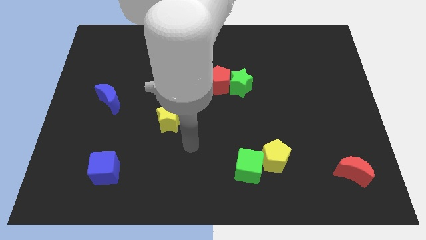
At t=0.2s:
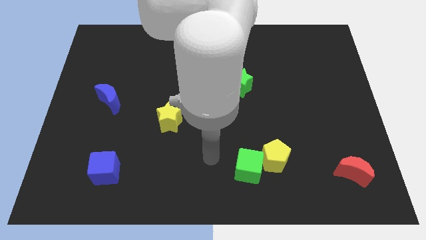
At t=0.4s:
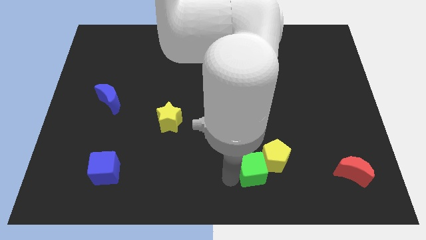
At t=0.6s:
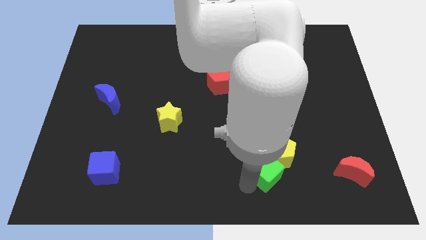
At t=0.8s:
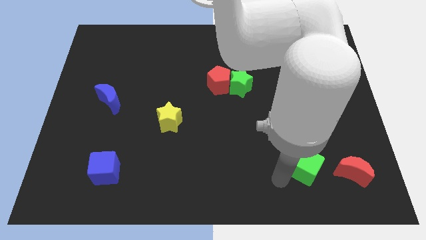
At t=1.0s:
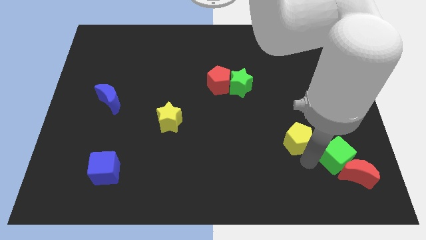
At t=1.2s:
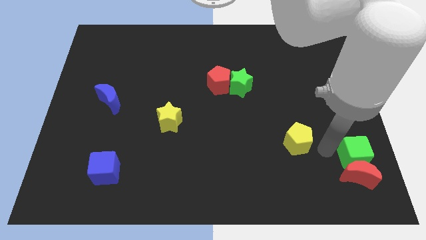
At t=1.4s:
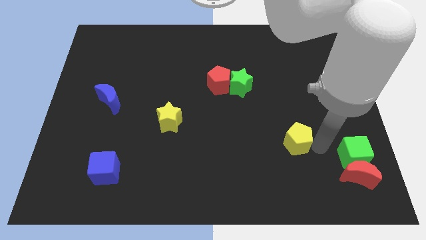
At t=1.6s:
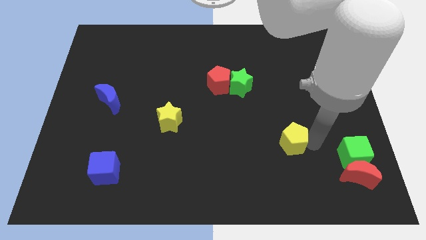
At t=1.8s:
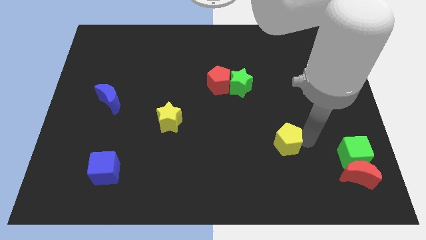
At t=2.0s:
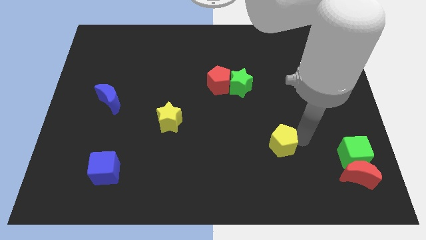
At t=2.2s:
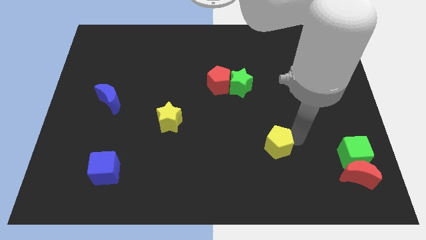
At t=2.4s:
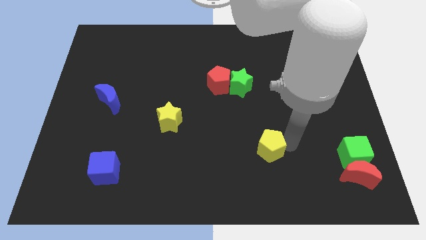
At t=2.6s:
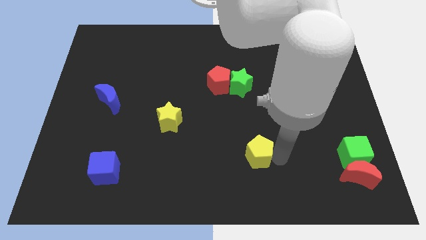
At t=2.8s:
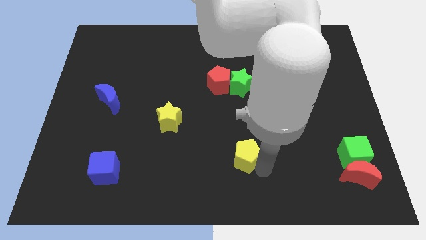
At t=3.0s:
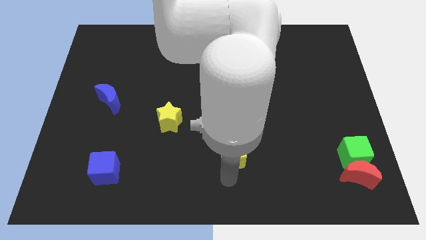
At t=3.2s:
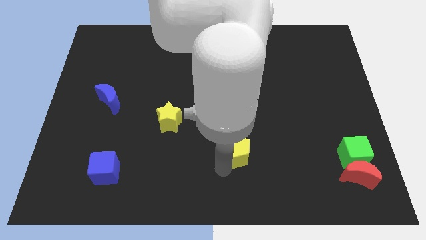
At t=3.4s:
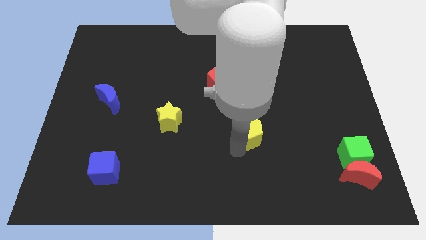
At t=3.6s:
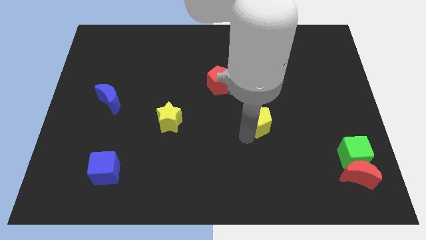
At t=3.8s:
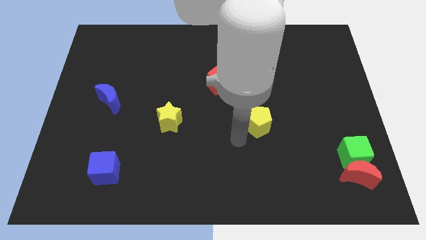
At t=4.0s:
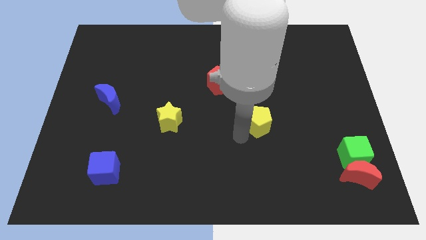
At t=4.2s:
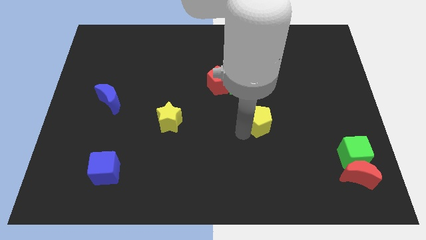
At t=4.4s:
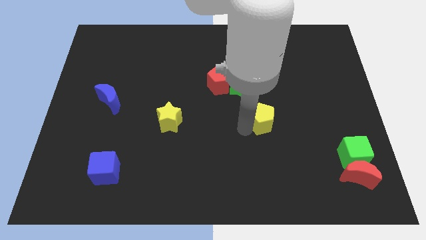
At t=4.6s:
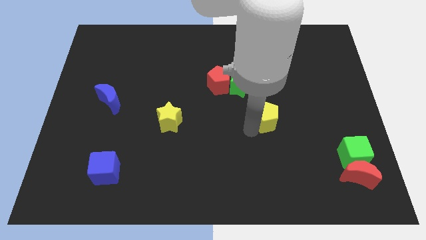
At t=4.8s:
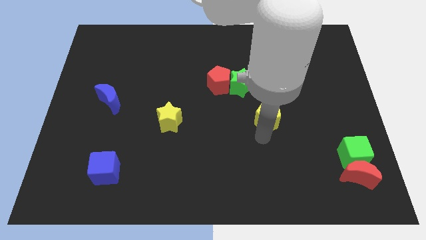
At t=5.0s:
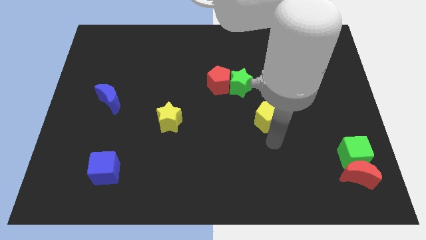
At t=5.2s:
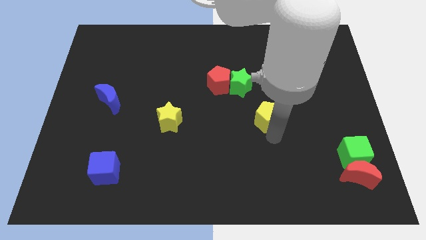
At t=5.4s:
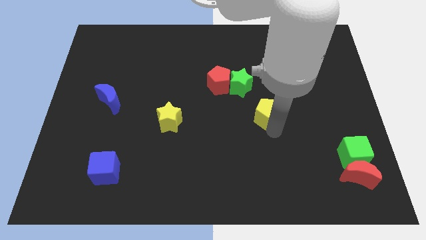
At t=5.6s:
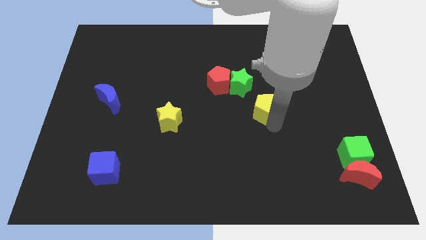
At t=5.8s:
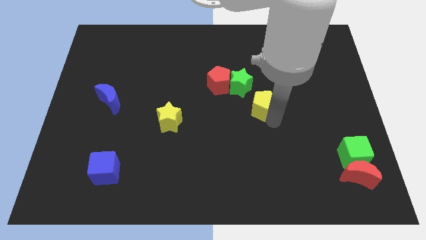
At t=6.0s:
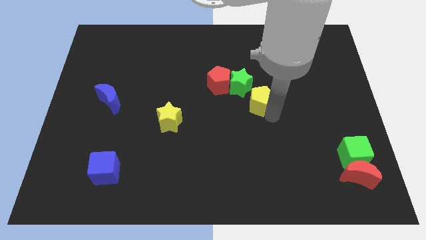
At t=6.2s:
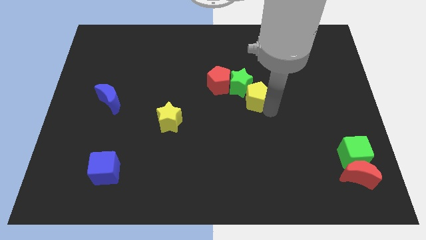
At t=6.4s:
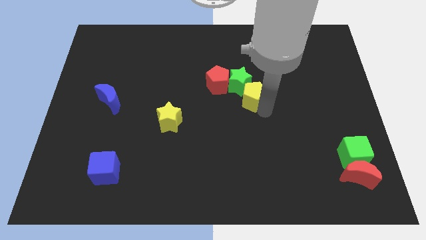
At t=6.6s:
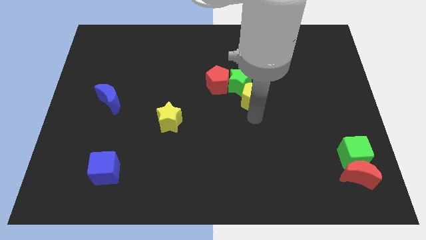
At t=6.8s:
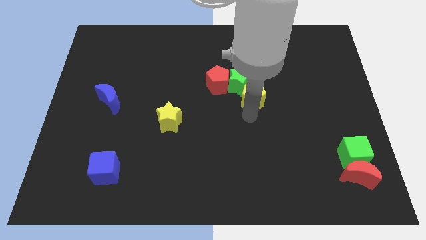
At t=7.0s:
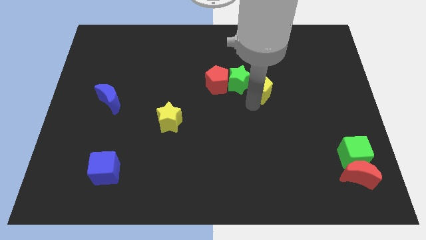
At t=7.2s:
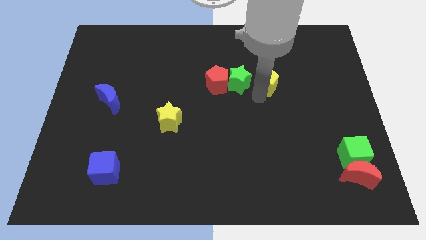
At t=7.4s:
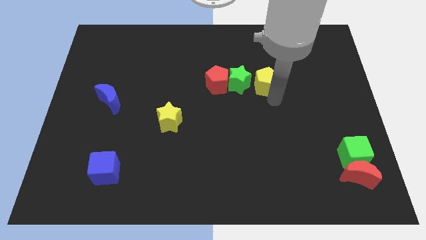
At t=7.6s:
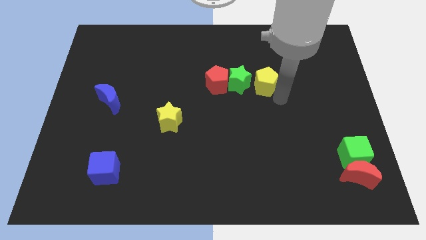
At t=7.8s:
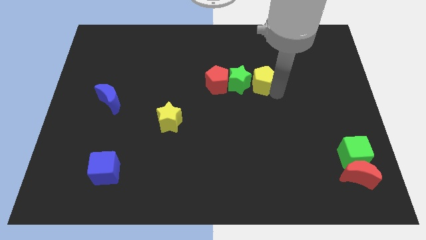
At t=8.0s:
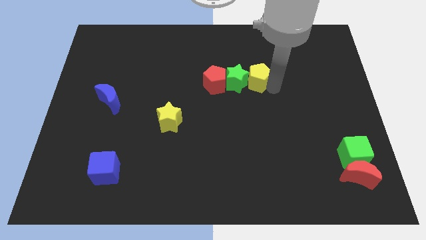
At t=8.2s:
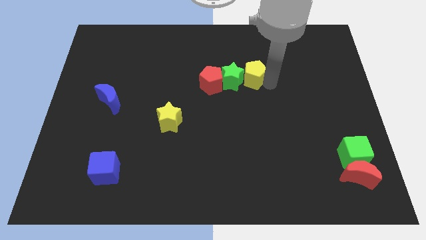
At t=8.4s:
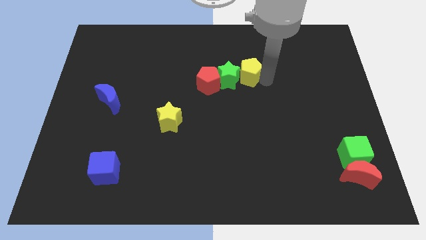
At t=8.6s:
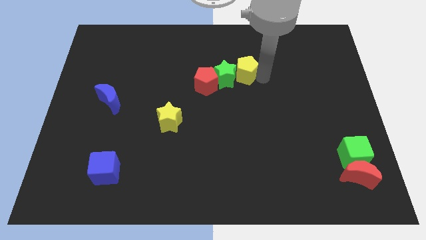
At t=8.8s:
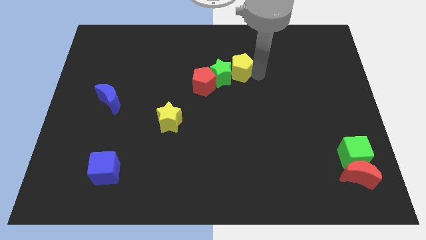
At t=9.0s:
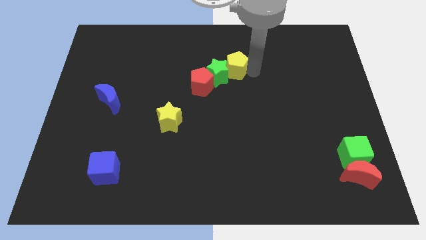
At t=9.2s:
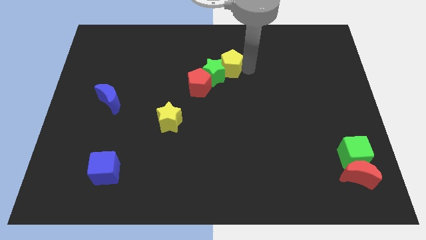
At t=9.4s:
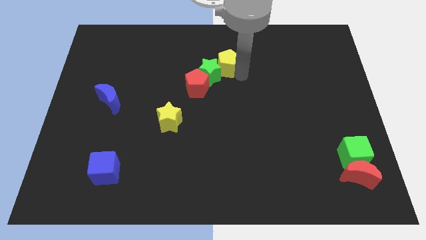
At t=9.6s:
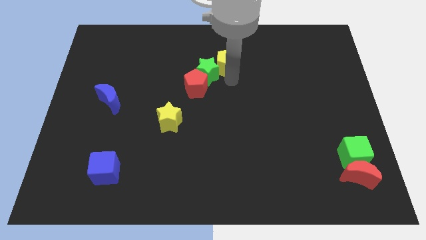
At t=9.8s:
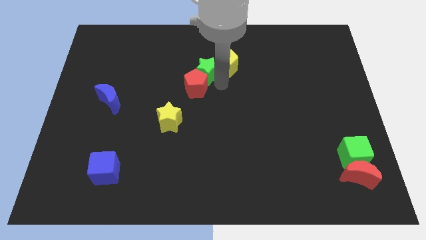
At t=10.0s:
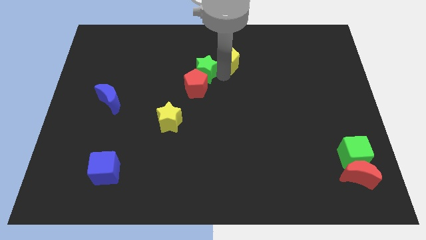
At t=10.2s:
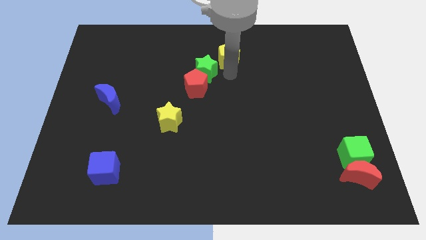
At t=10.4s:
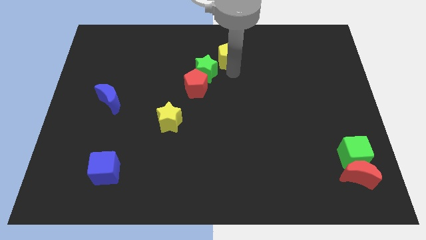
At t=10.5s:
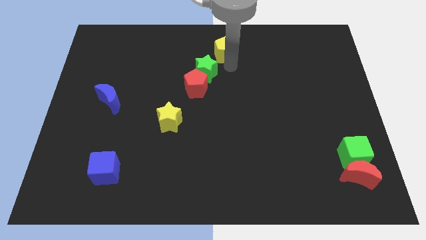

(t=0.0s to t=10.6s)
slide the yellow pentagon to the towards your base

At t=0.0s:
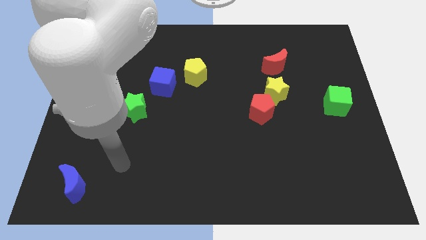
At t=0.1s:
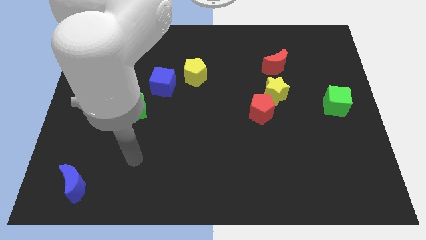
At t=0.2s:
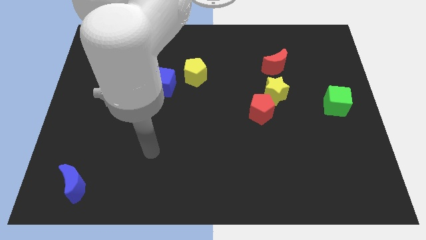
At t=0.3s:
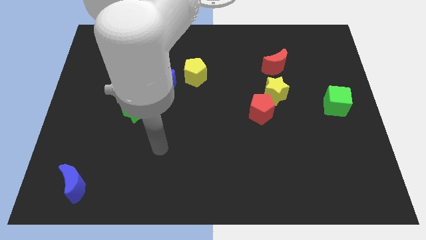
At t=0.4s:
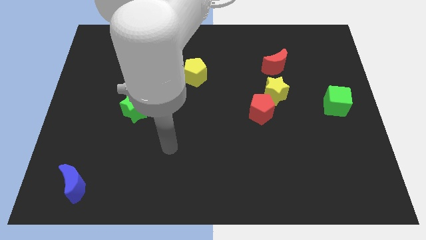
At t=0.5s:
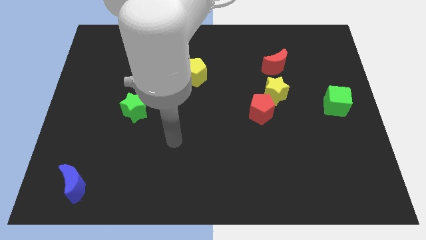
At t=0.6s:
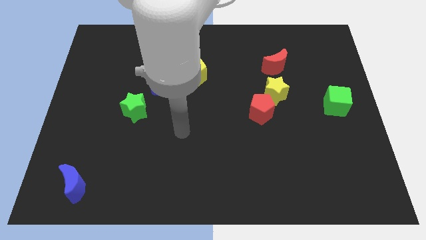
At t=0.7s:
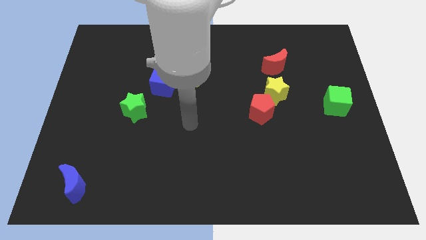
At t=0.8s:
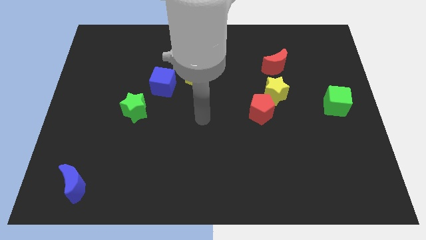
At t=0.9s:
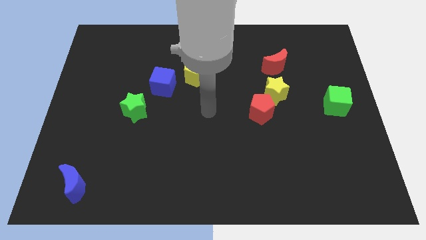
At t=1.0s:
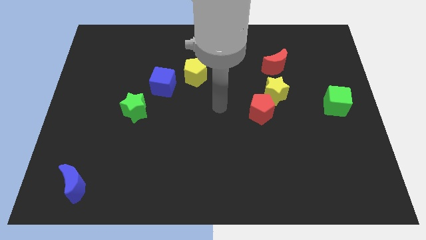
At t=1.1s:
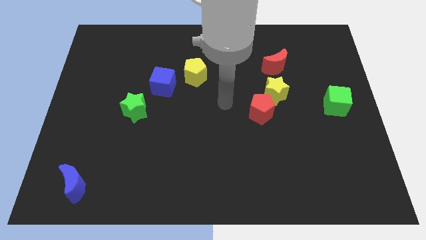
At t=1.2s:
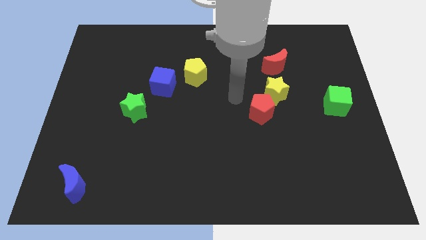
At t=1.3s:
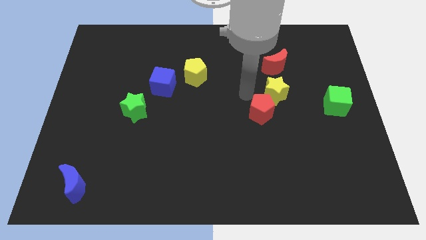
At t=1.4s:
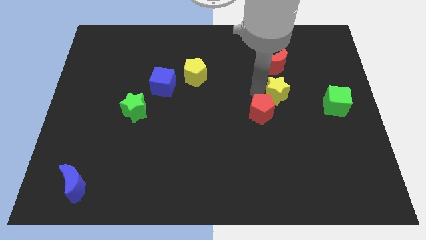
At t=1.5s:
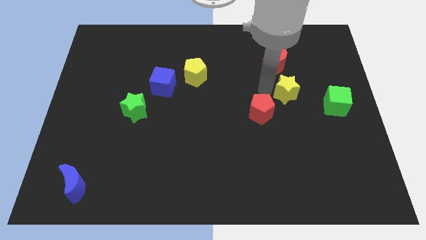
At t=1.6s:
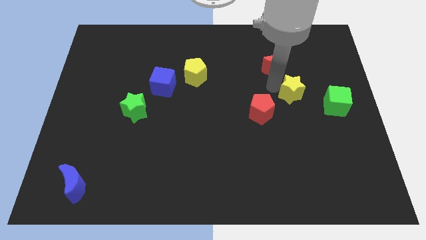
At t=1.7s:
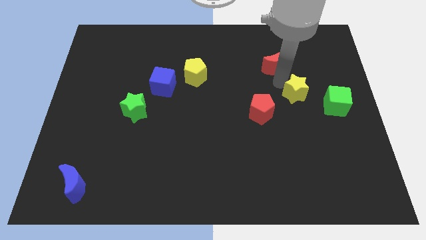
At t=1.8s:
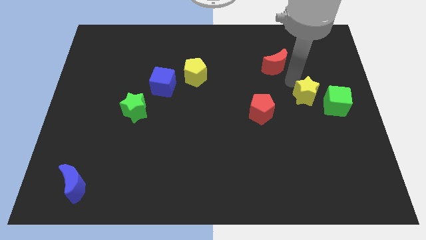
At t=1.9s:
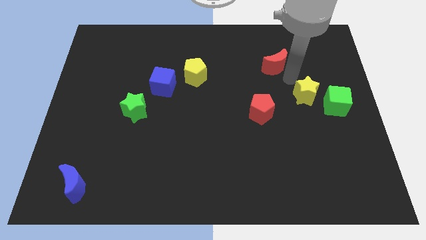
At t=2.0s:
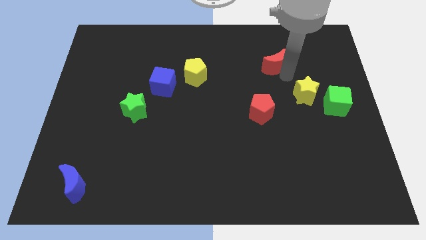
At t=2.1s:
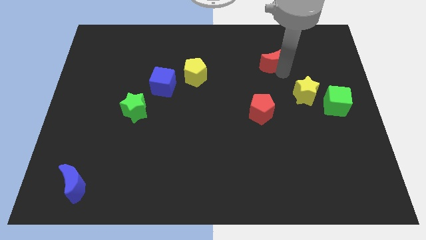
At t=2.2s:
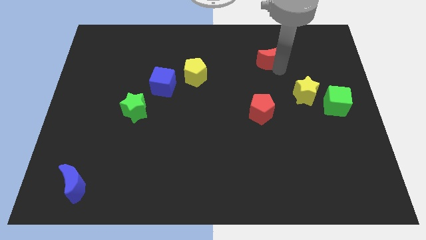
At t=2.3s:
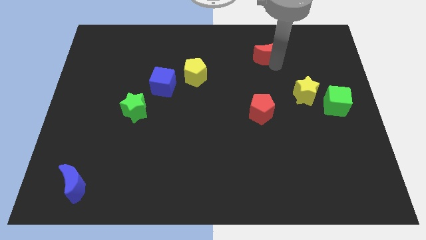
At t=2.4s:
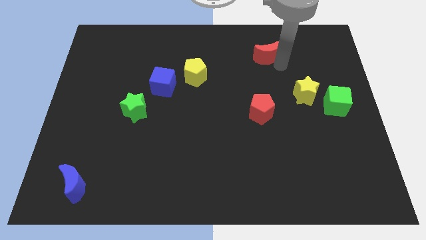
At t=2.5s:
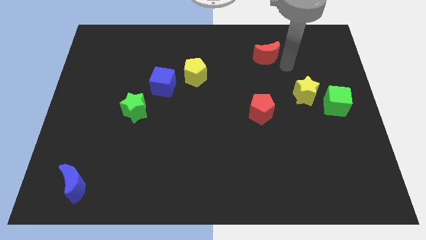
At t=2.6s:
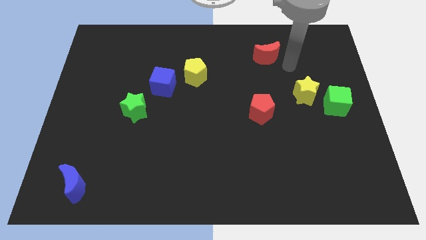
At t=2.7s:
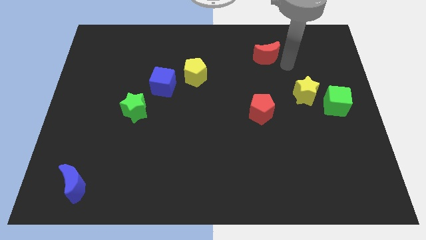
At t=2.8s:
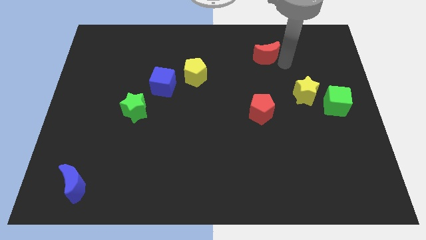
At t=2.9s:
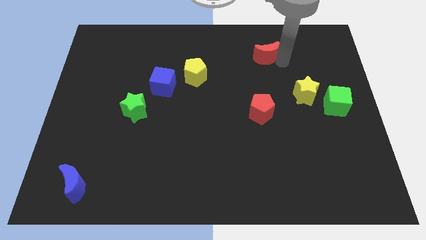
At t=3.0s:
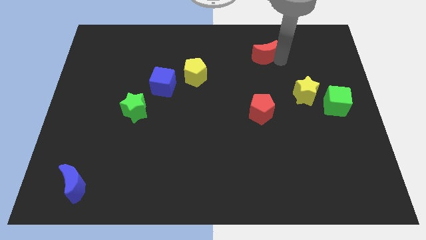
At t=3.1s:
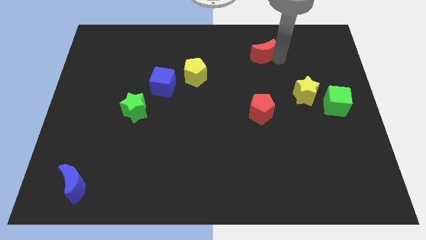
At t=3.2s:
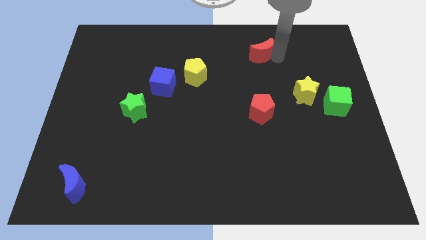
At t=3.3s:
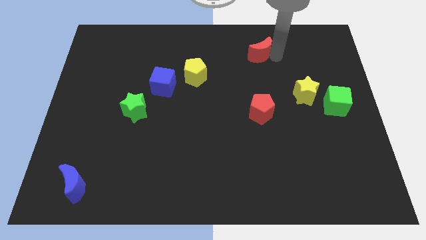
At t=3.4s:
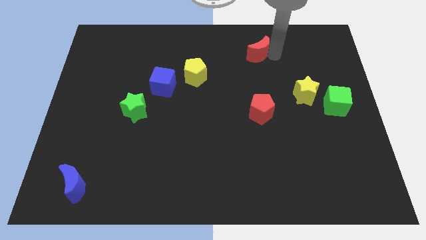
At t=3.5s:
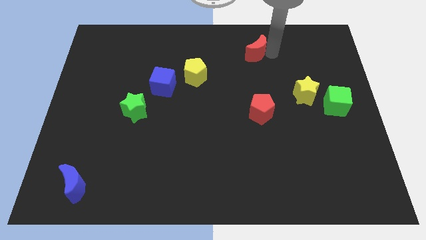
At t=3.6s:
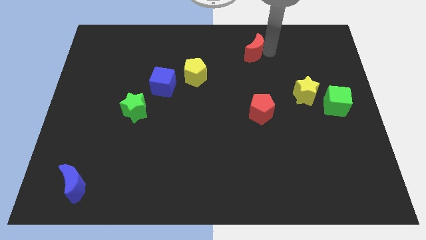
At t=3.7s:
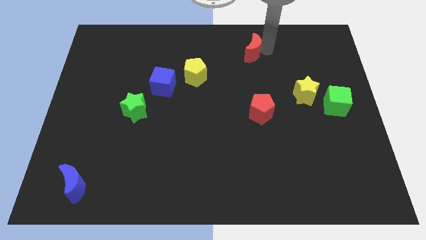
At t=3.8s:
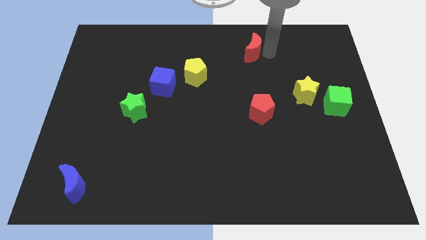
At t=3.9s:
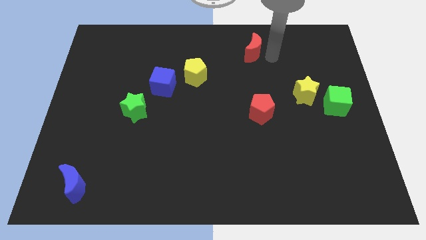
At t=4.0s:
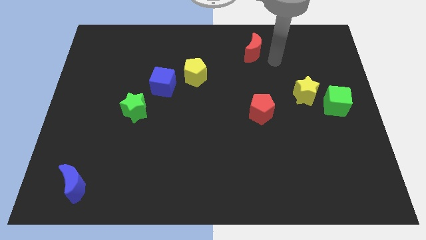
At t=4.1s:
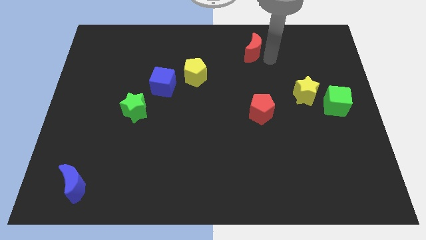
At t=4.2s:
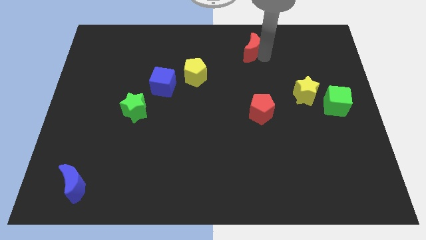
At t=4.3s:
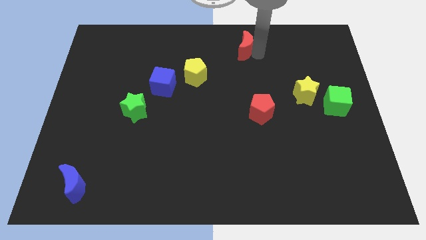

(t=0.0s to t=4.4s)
put the red moon to the towards your base
